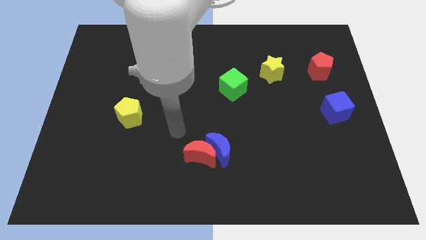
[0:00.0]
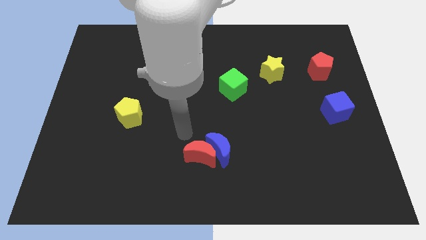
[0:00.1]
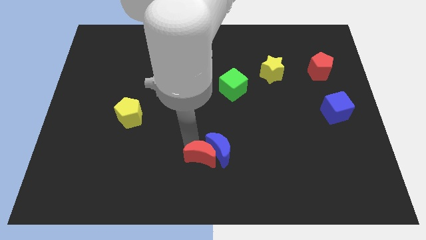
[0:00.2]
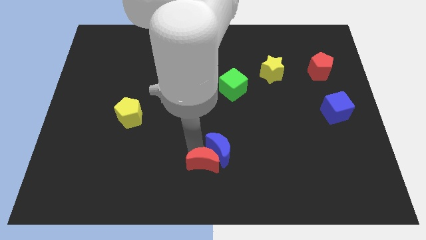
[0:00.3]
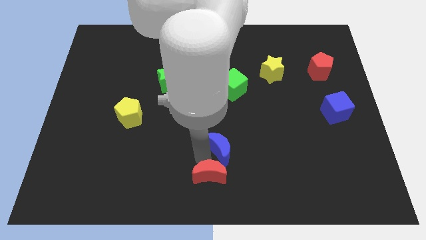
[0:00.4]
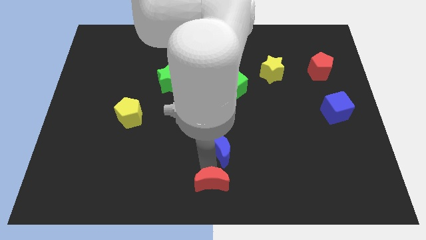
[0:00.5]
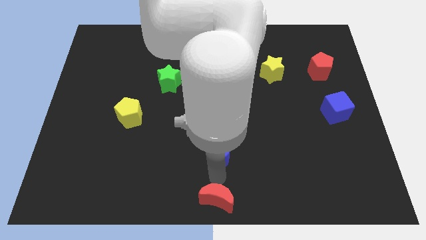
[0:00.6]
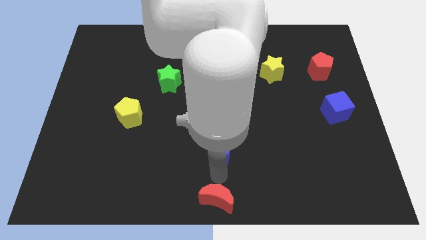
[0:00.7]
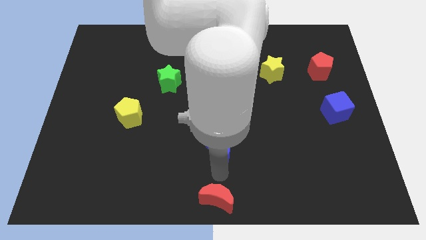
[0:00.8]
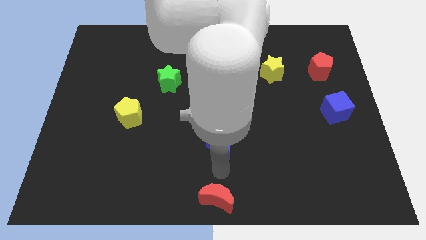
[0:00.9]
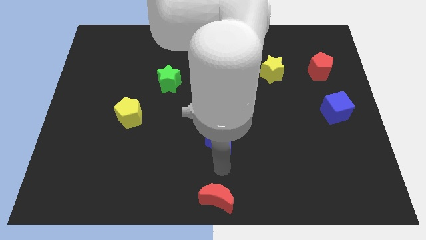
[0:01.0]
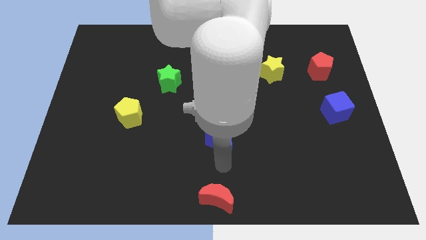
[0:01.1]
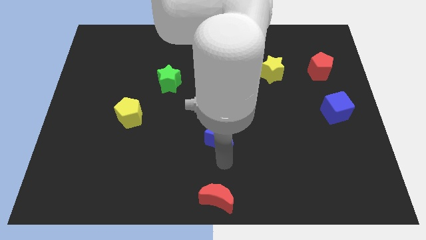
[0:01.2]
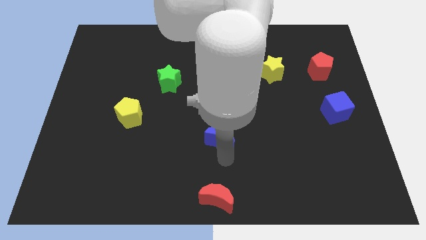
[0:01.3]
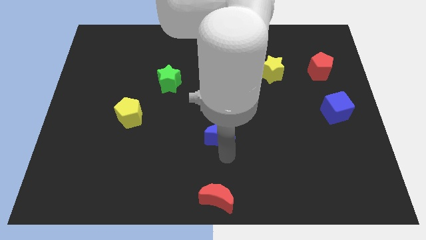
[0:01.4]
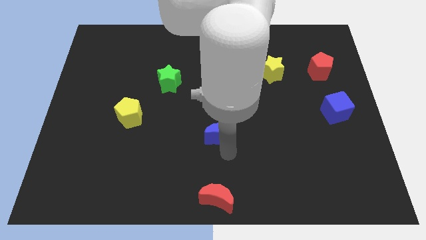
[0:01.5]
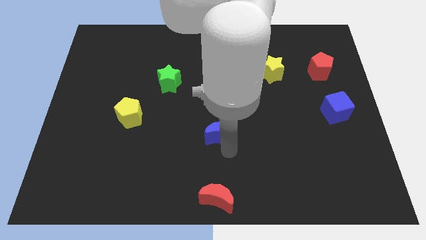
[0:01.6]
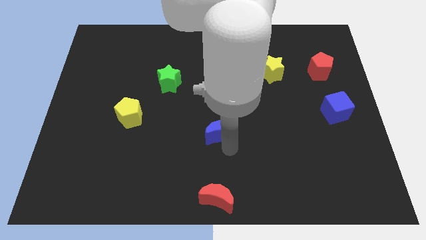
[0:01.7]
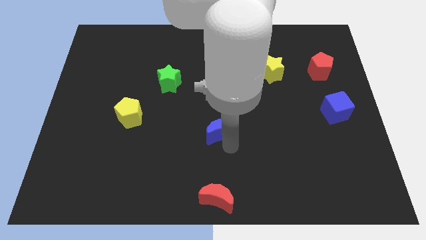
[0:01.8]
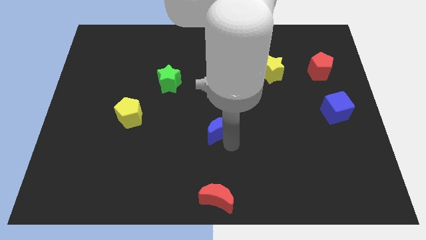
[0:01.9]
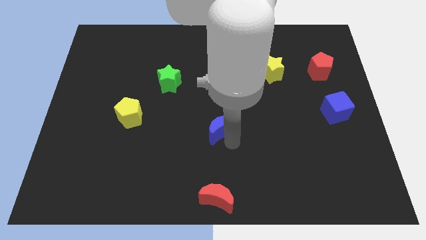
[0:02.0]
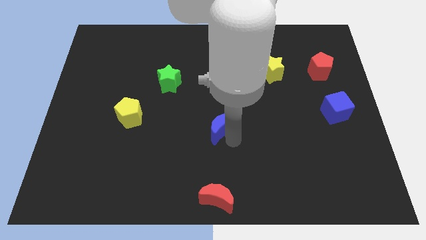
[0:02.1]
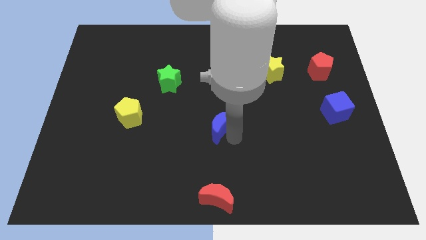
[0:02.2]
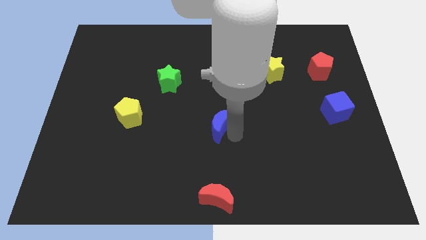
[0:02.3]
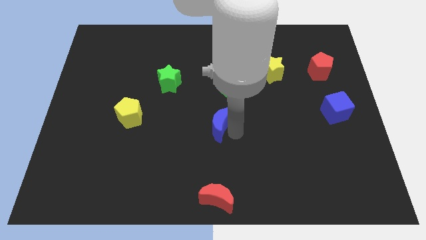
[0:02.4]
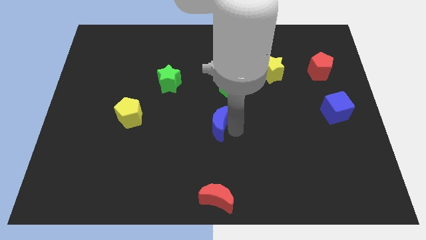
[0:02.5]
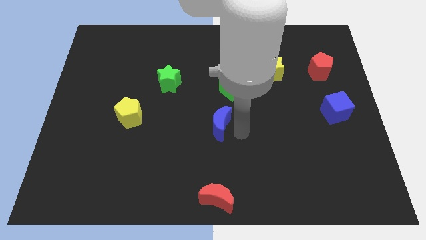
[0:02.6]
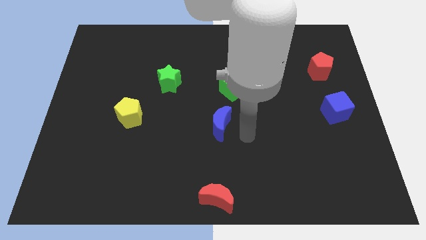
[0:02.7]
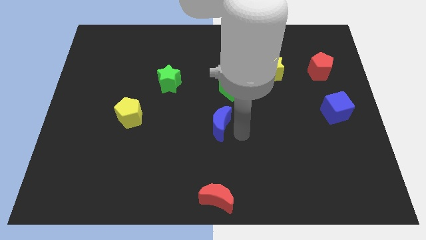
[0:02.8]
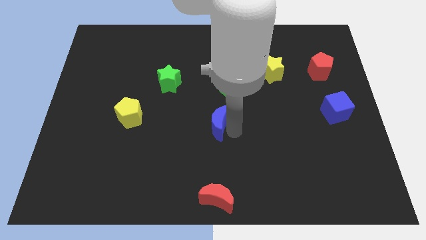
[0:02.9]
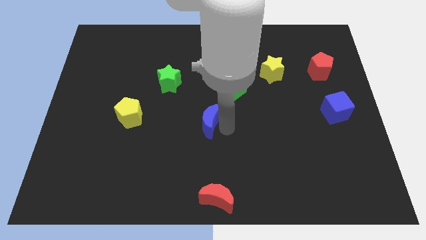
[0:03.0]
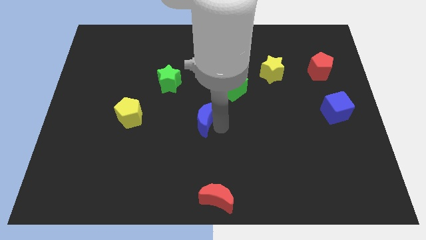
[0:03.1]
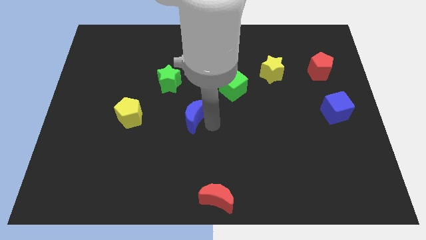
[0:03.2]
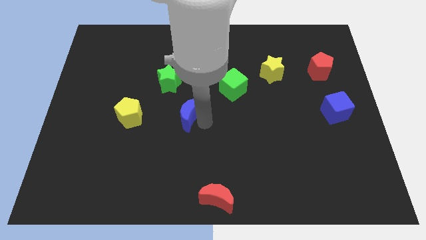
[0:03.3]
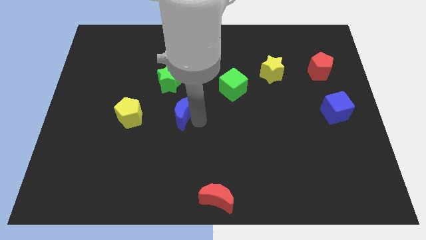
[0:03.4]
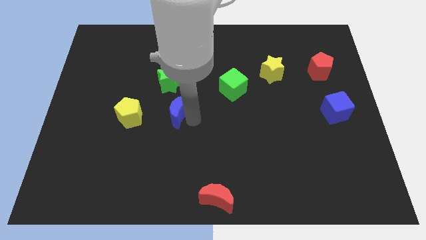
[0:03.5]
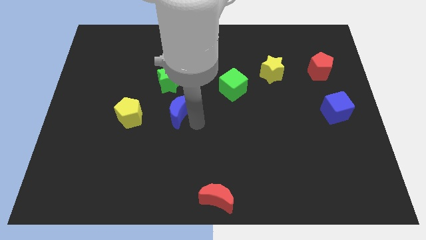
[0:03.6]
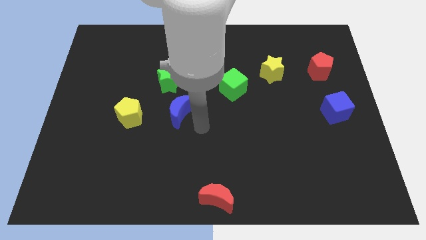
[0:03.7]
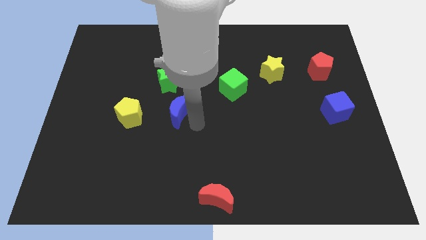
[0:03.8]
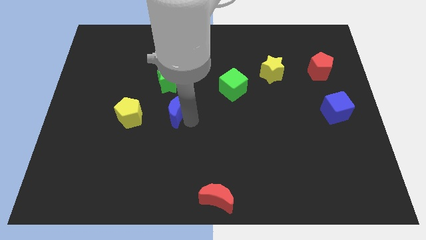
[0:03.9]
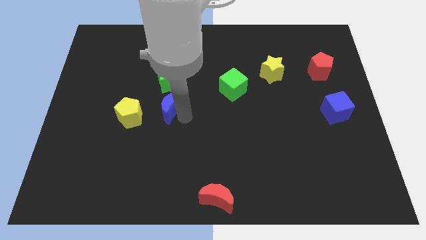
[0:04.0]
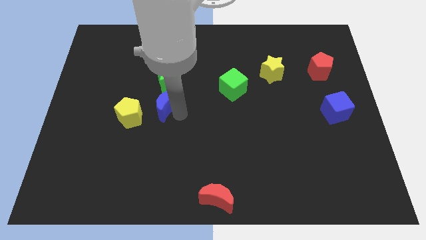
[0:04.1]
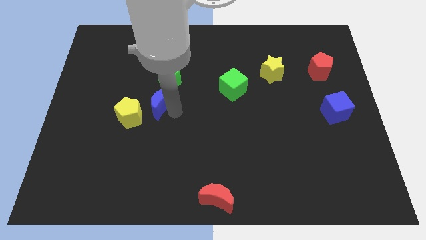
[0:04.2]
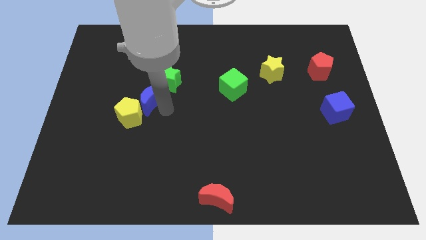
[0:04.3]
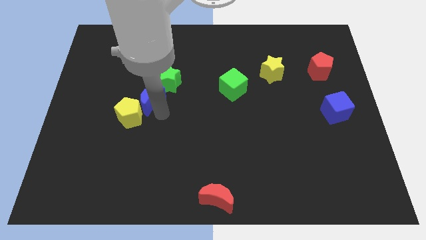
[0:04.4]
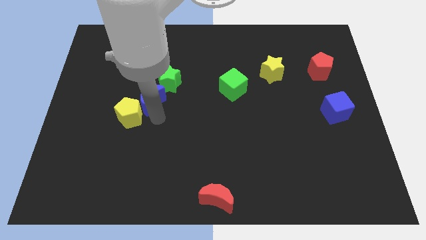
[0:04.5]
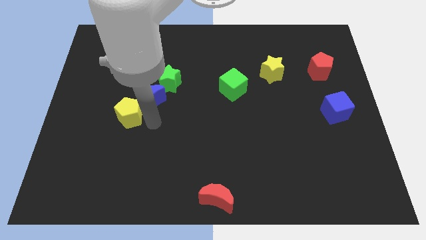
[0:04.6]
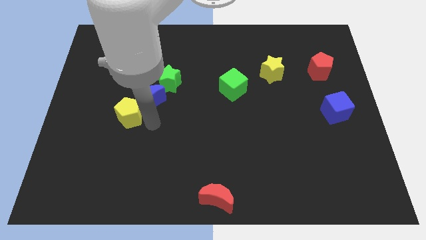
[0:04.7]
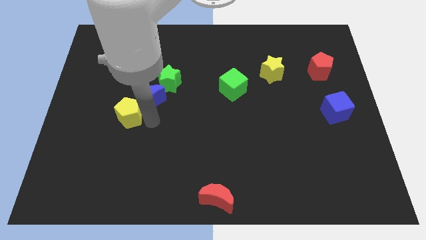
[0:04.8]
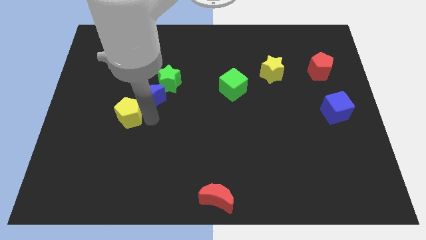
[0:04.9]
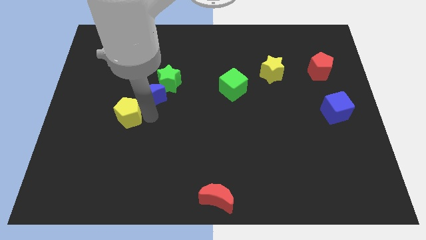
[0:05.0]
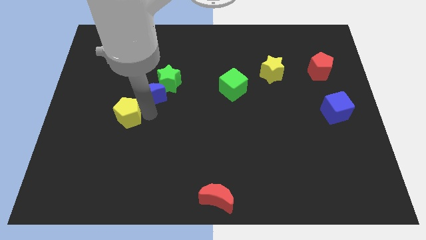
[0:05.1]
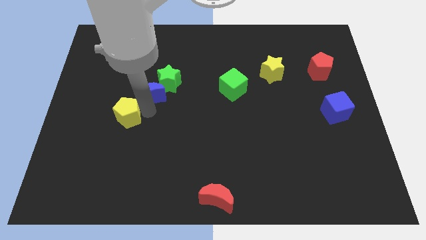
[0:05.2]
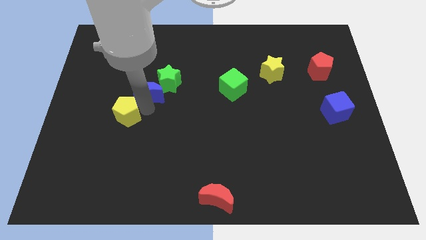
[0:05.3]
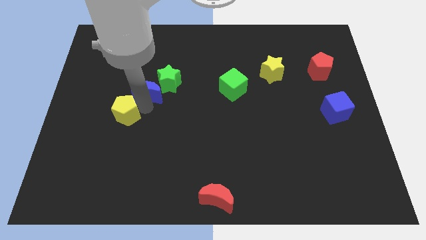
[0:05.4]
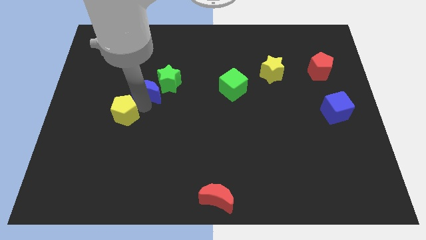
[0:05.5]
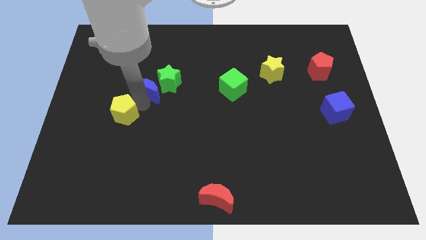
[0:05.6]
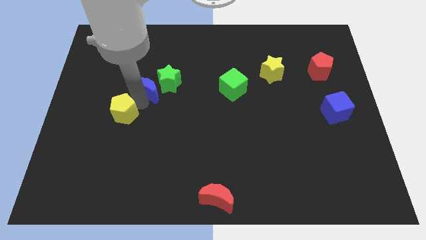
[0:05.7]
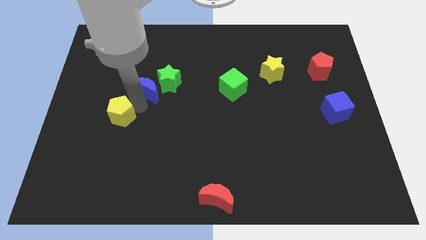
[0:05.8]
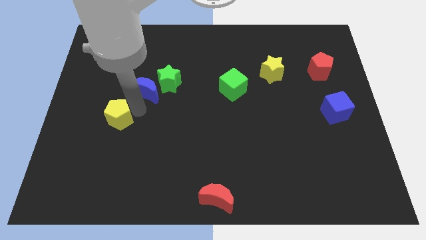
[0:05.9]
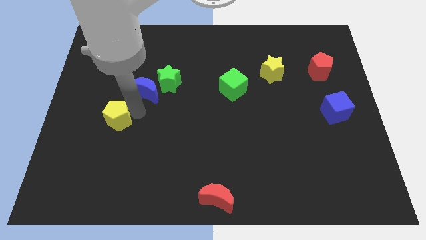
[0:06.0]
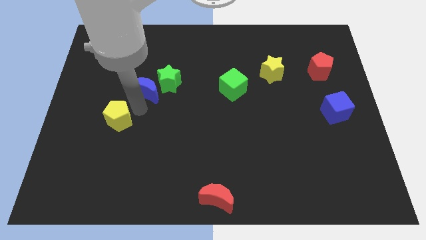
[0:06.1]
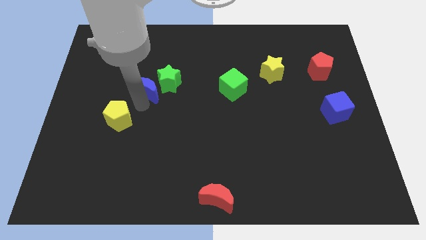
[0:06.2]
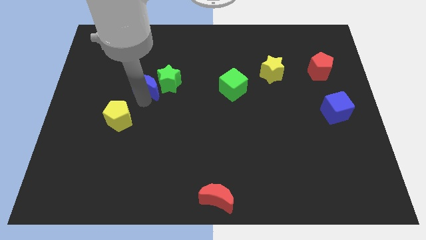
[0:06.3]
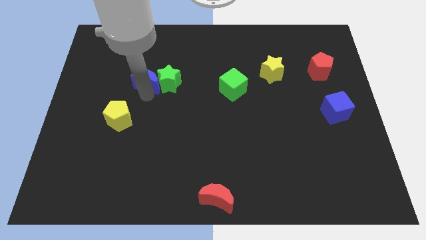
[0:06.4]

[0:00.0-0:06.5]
move the blue moon to the top left side of the green star

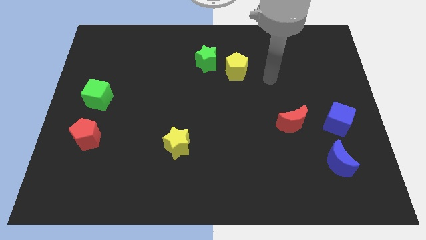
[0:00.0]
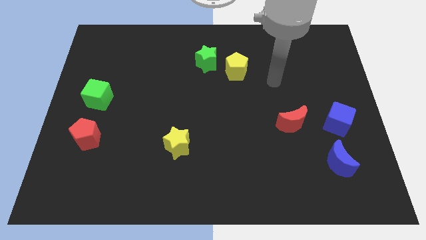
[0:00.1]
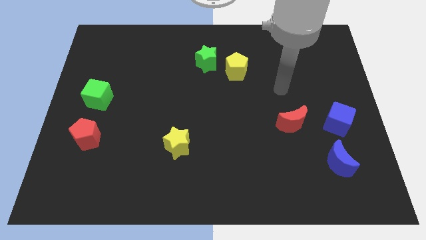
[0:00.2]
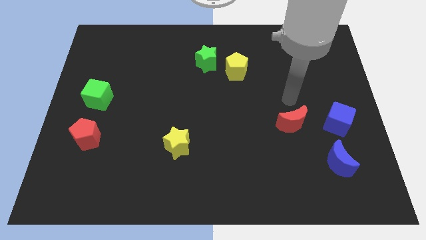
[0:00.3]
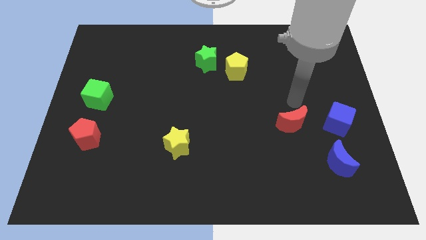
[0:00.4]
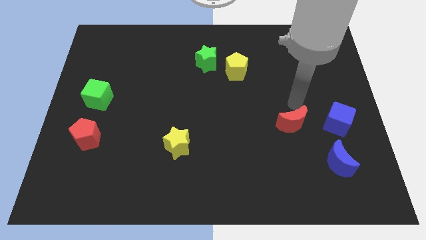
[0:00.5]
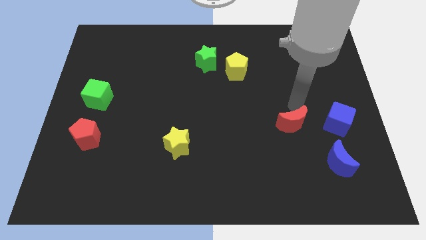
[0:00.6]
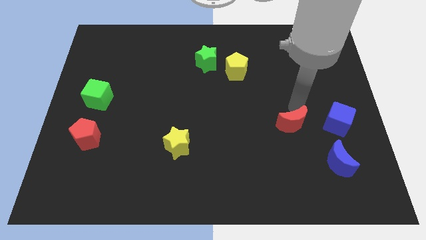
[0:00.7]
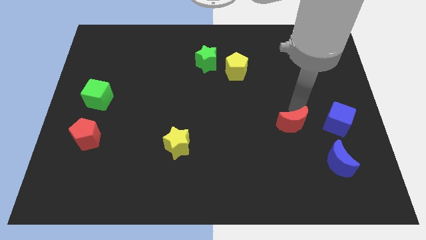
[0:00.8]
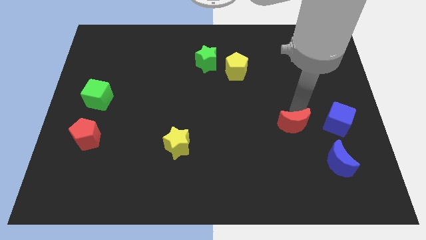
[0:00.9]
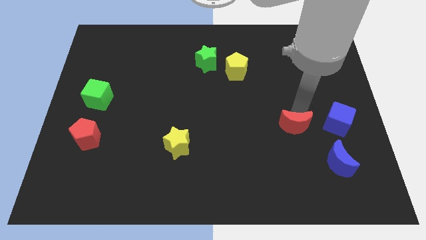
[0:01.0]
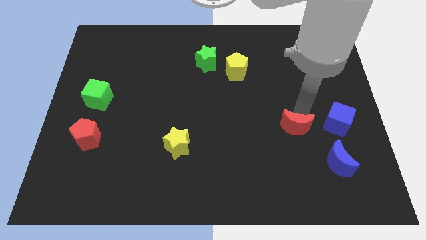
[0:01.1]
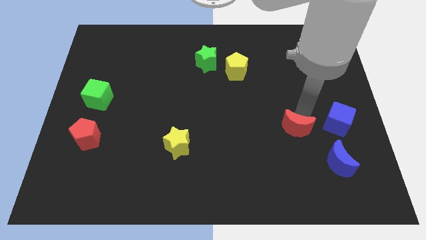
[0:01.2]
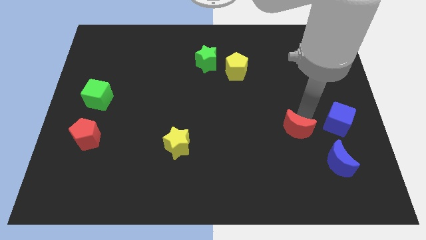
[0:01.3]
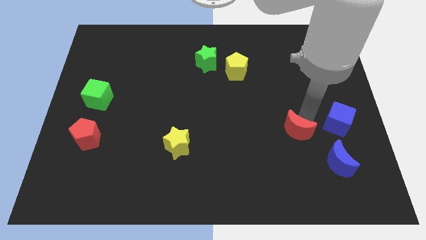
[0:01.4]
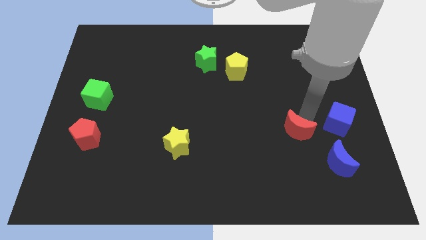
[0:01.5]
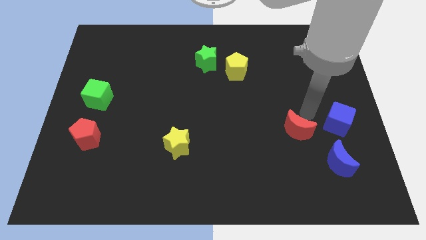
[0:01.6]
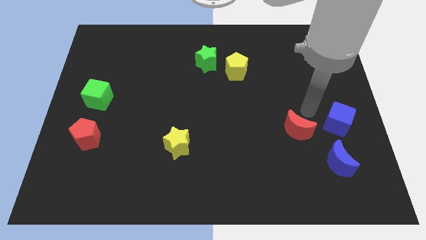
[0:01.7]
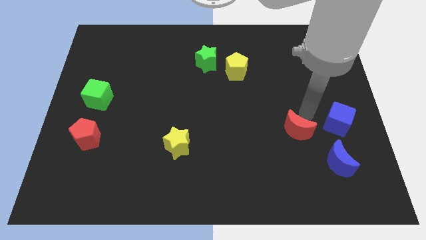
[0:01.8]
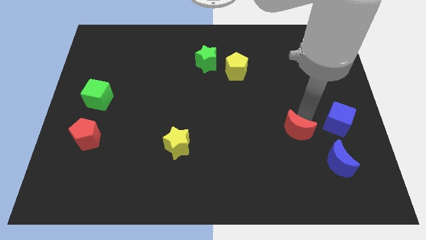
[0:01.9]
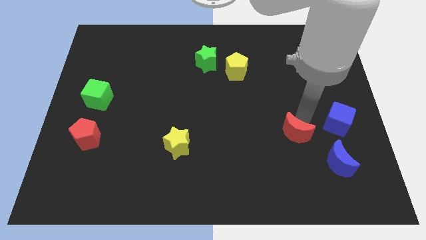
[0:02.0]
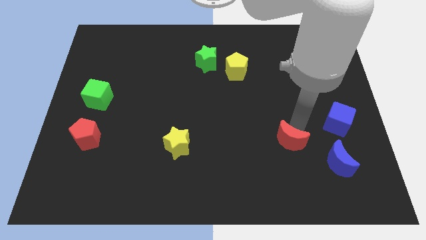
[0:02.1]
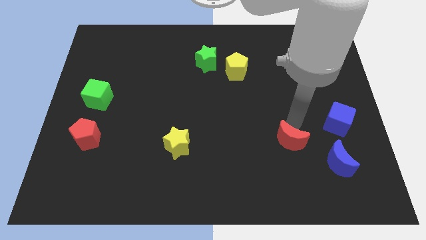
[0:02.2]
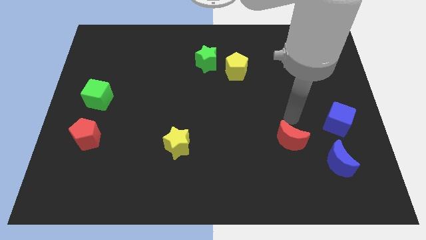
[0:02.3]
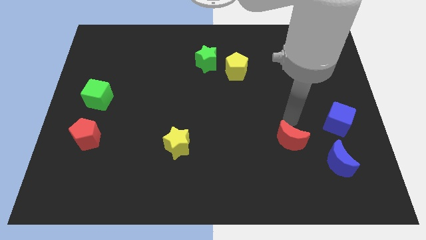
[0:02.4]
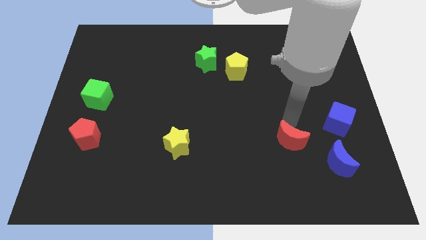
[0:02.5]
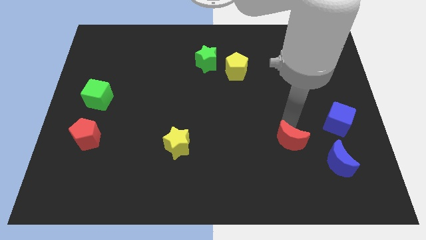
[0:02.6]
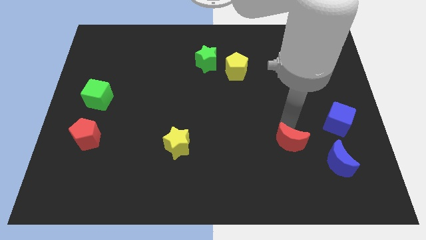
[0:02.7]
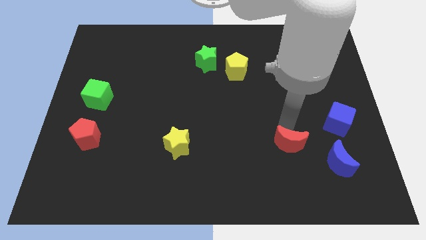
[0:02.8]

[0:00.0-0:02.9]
slide the red moon left of the blue moon
